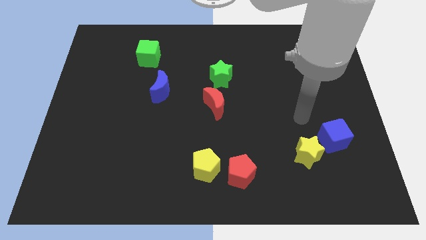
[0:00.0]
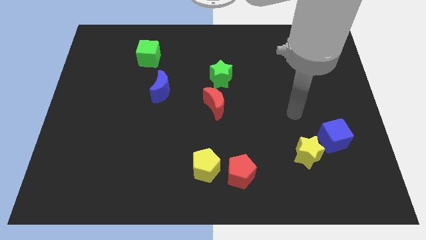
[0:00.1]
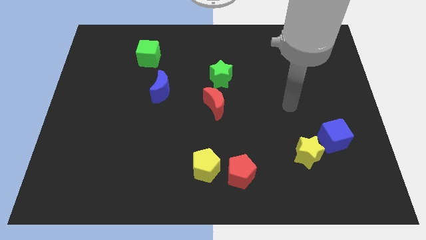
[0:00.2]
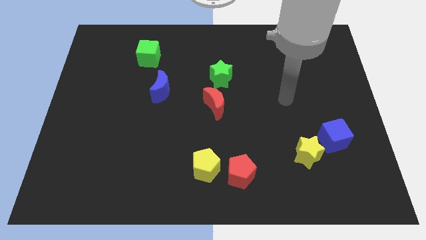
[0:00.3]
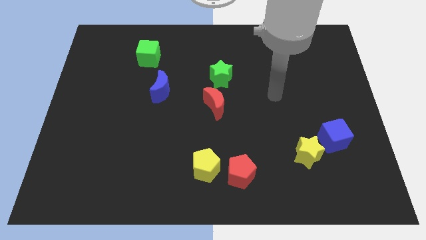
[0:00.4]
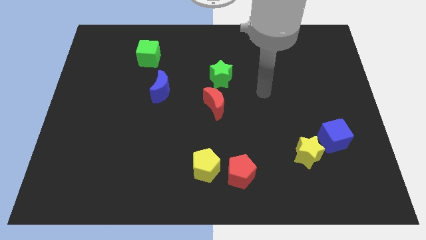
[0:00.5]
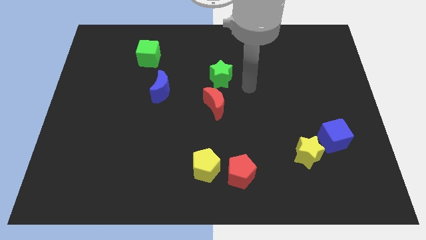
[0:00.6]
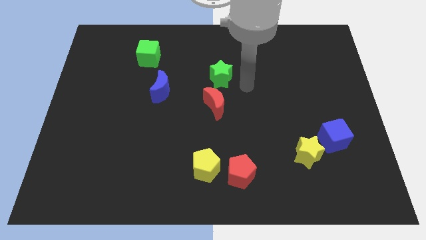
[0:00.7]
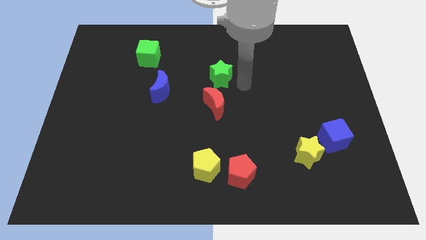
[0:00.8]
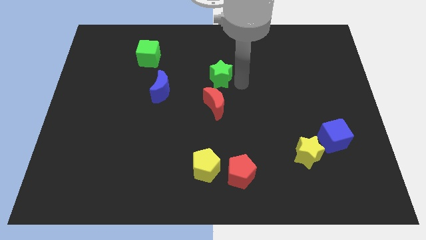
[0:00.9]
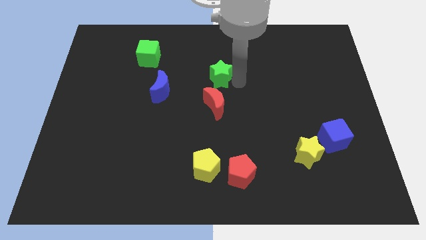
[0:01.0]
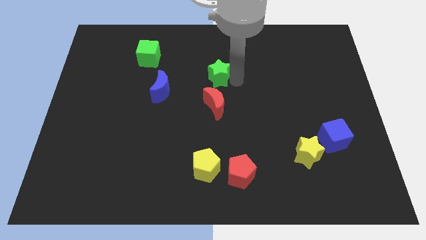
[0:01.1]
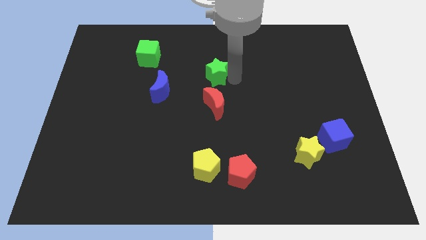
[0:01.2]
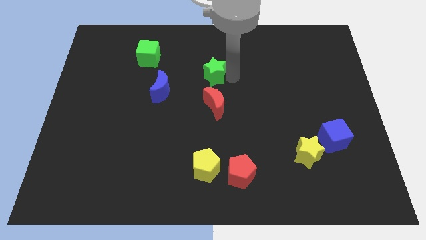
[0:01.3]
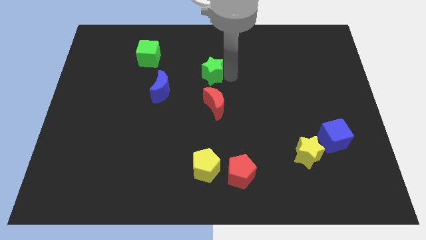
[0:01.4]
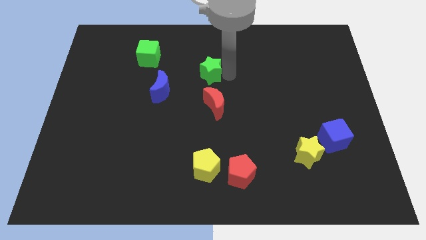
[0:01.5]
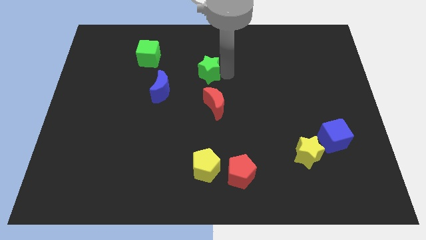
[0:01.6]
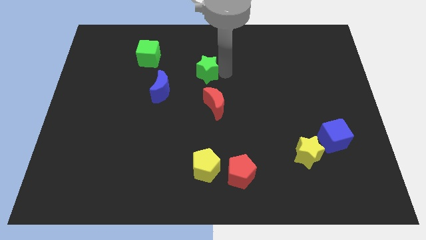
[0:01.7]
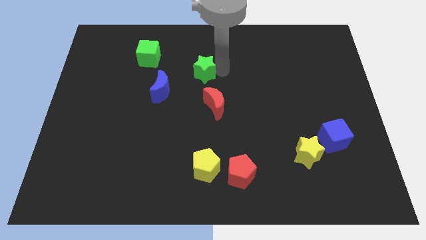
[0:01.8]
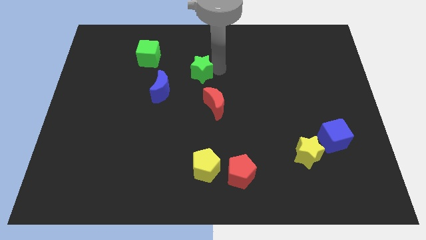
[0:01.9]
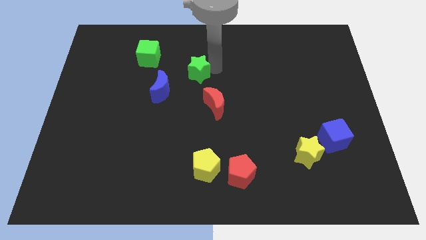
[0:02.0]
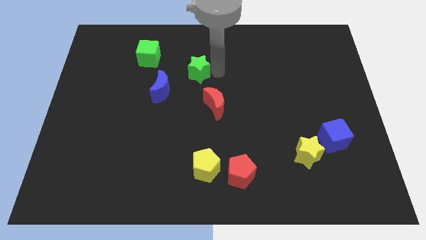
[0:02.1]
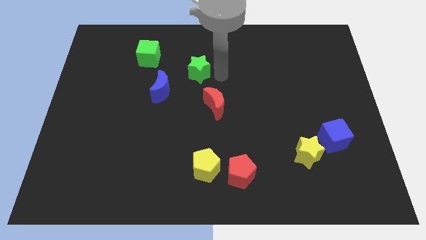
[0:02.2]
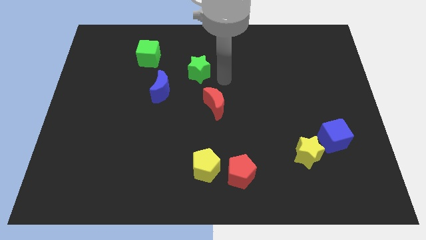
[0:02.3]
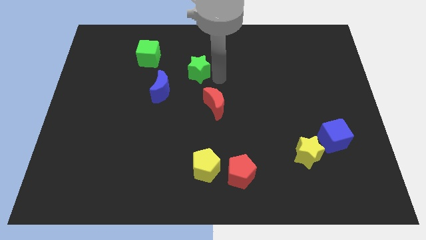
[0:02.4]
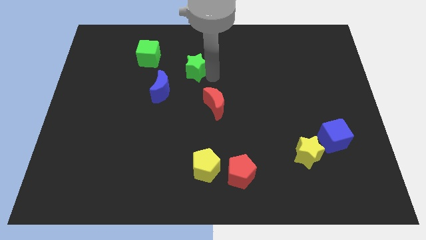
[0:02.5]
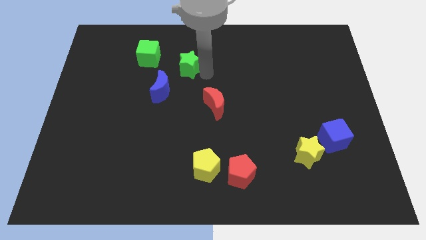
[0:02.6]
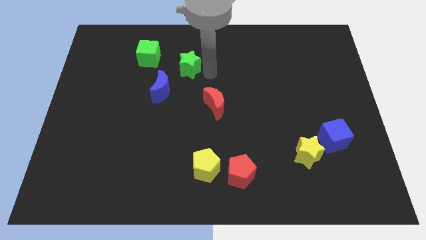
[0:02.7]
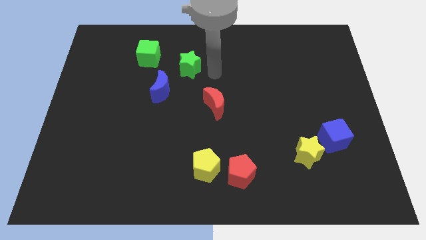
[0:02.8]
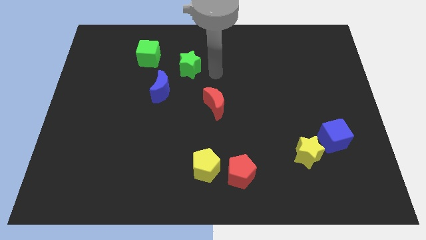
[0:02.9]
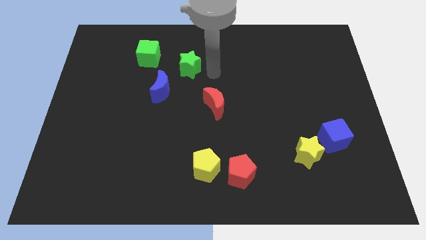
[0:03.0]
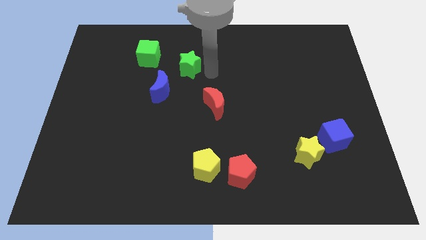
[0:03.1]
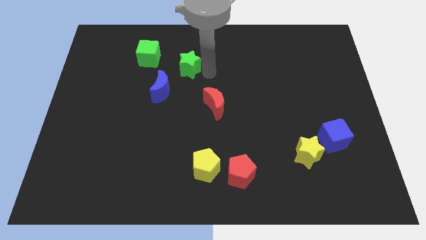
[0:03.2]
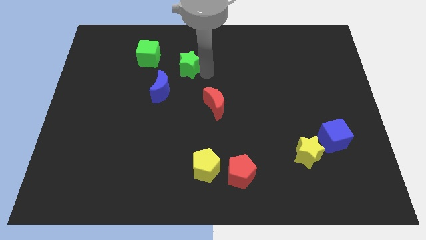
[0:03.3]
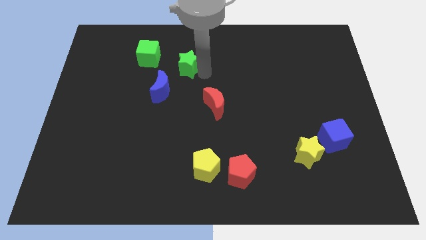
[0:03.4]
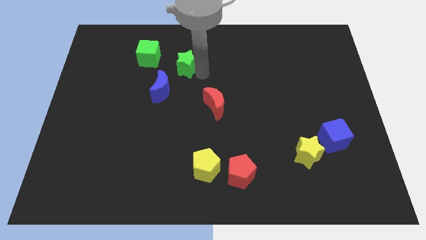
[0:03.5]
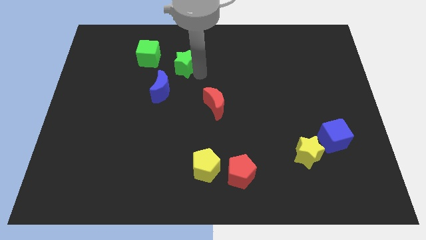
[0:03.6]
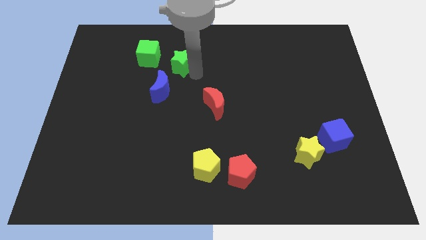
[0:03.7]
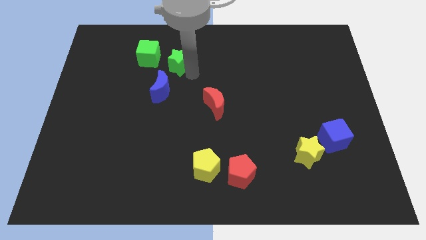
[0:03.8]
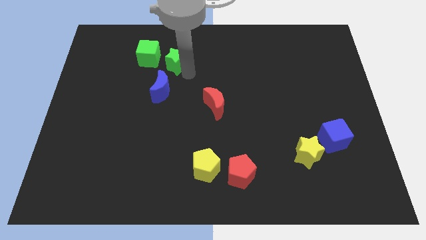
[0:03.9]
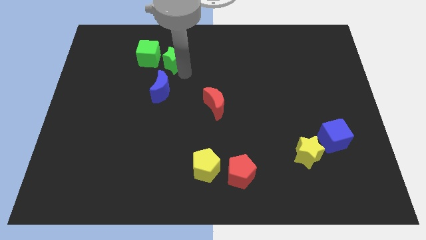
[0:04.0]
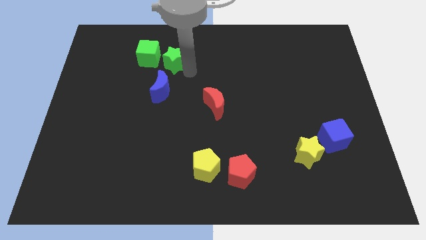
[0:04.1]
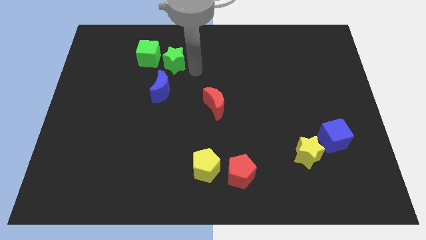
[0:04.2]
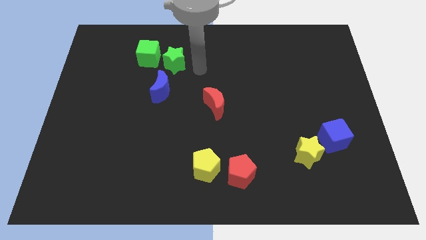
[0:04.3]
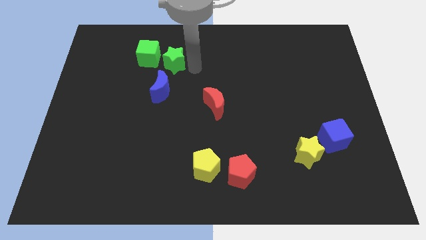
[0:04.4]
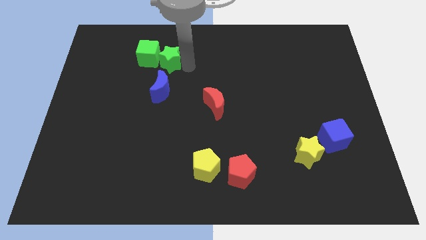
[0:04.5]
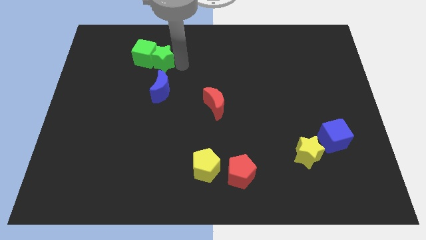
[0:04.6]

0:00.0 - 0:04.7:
push the green star towards the green cube

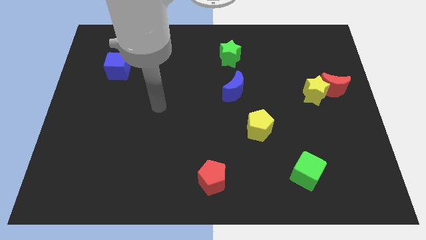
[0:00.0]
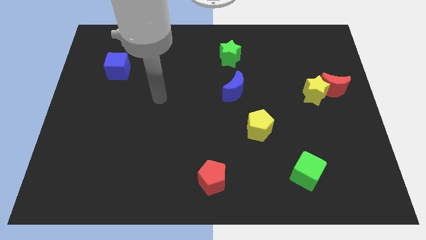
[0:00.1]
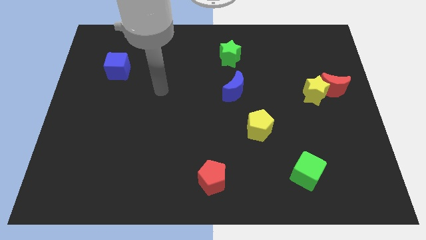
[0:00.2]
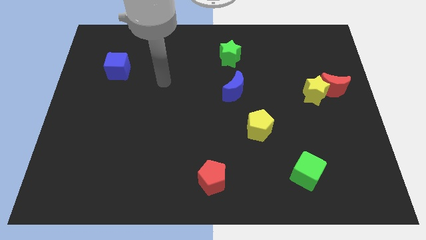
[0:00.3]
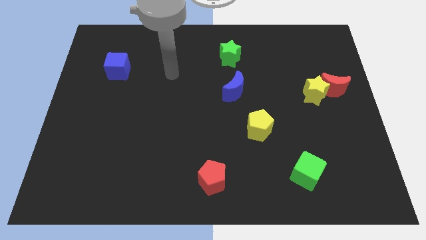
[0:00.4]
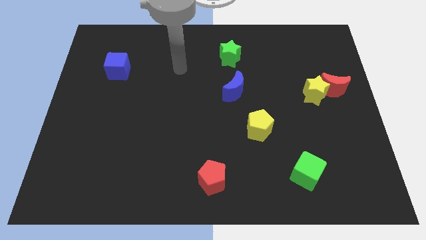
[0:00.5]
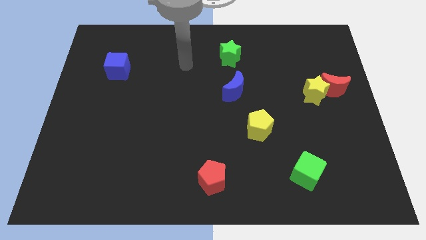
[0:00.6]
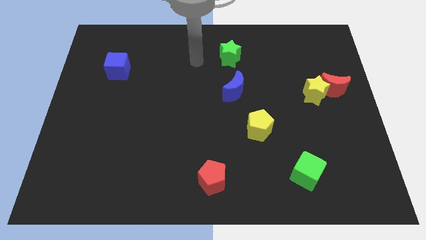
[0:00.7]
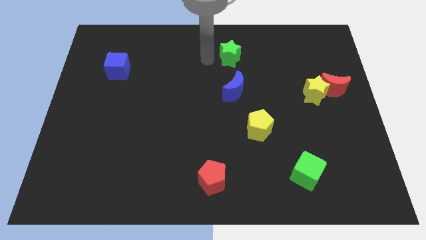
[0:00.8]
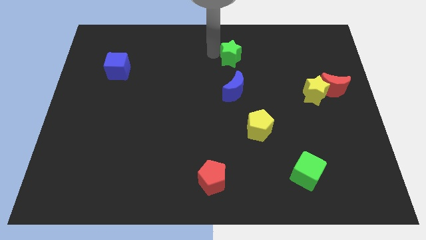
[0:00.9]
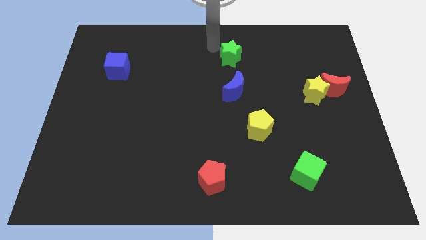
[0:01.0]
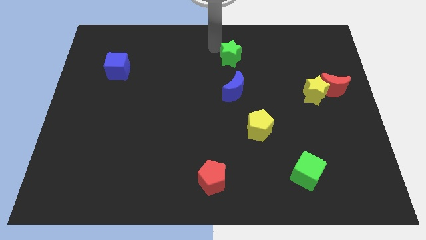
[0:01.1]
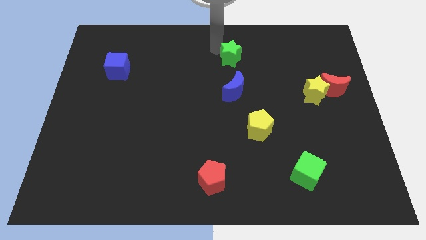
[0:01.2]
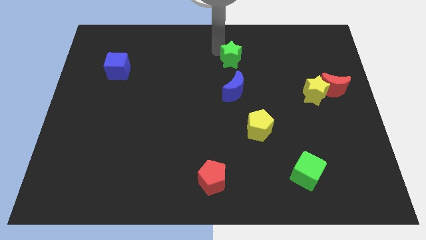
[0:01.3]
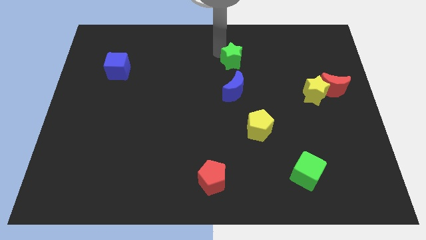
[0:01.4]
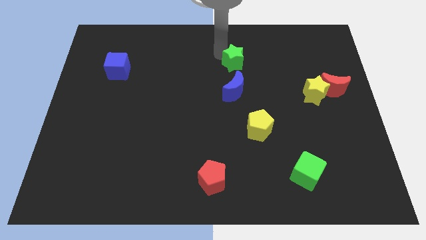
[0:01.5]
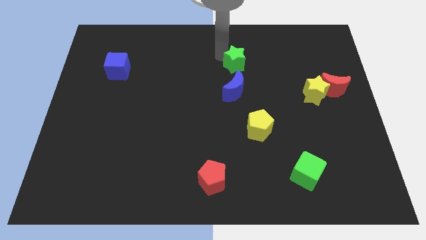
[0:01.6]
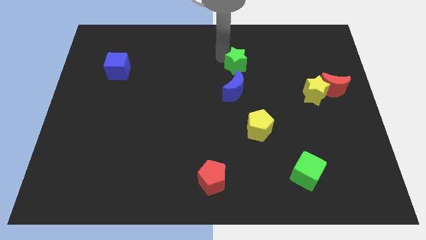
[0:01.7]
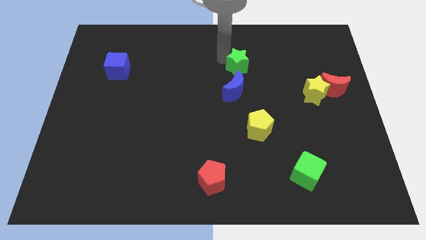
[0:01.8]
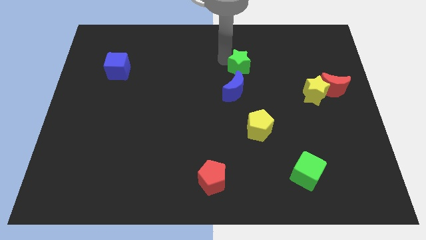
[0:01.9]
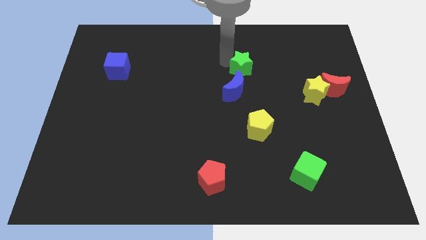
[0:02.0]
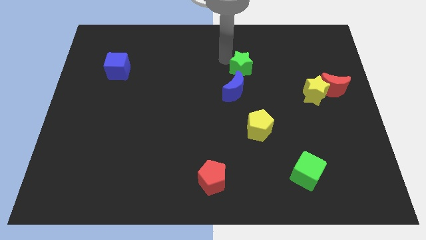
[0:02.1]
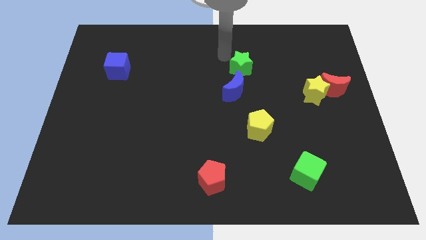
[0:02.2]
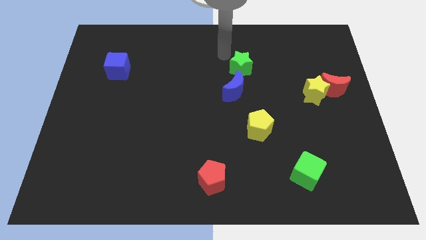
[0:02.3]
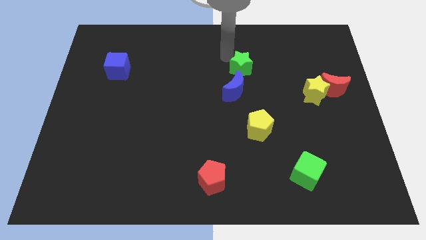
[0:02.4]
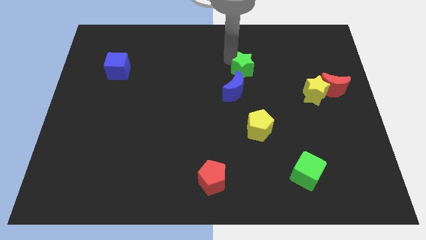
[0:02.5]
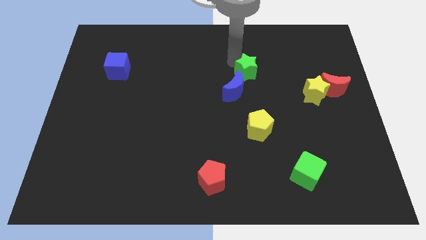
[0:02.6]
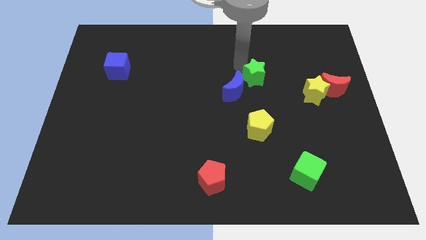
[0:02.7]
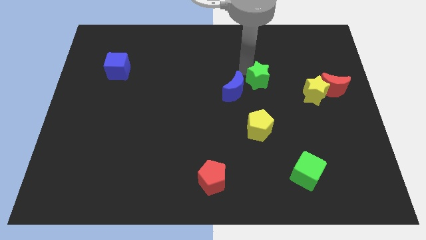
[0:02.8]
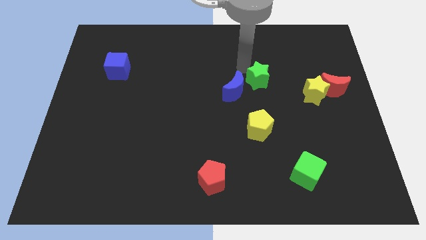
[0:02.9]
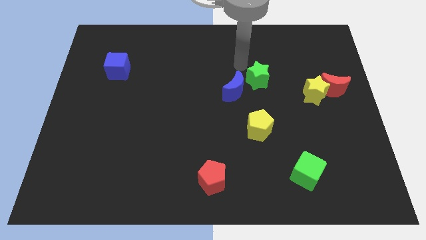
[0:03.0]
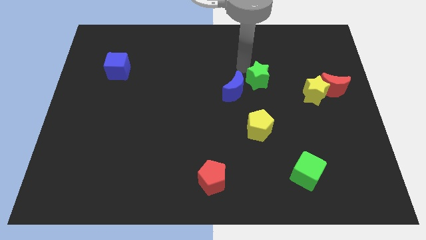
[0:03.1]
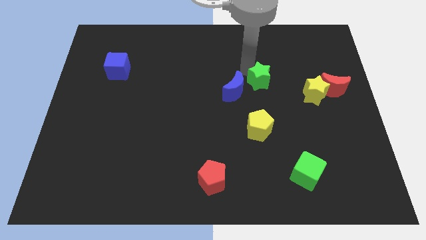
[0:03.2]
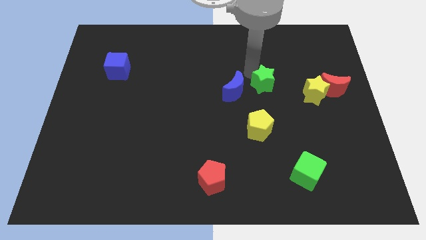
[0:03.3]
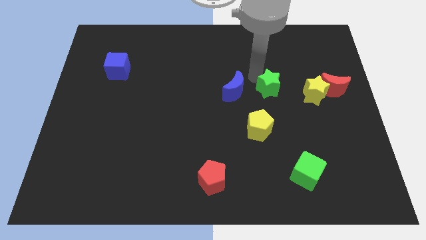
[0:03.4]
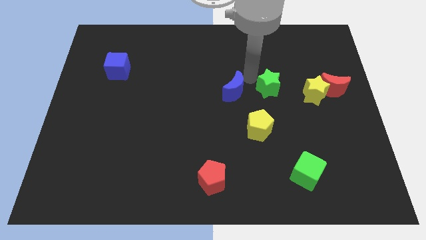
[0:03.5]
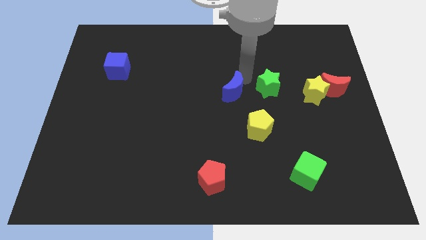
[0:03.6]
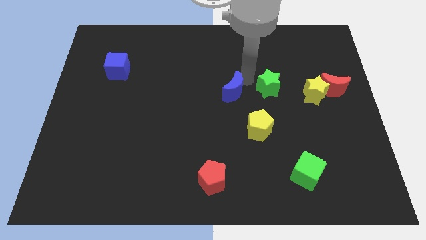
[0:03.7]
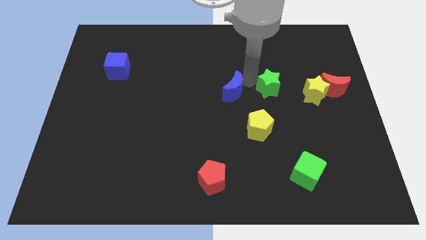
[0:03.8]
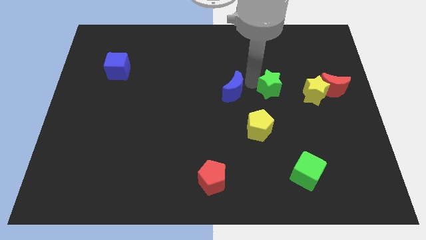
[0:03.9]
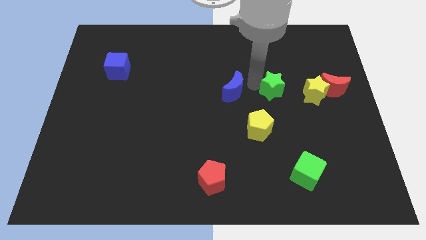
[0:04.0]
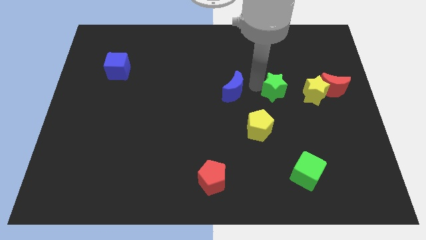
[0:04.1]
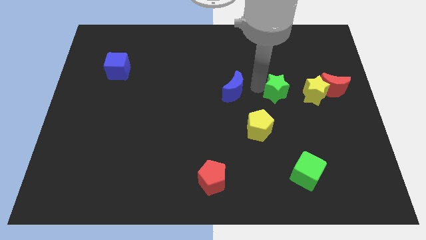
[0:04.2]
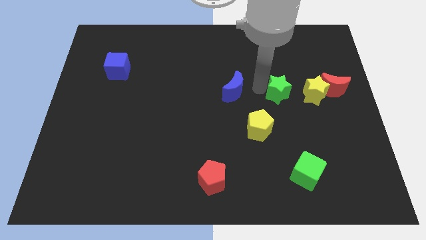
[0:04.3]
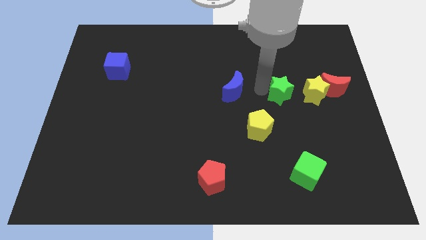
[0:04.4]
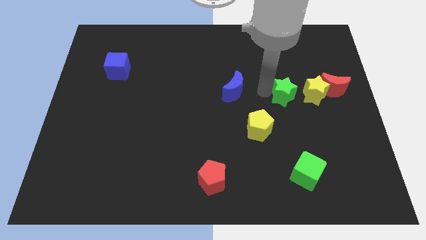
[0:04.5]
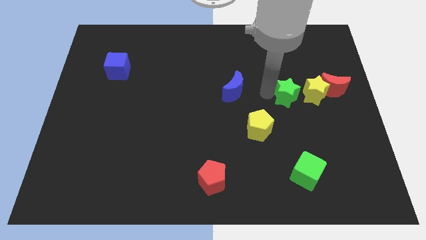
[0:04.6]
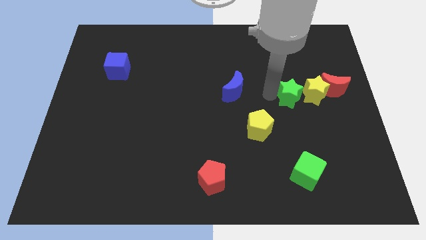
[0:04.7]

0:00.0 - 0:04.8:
move the green star next to the yellow star
